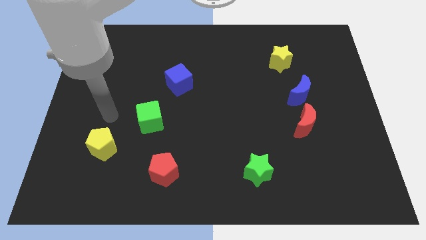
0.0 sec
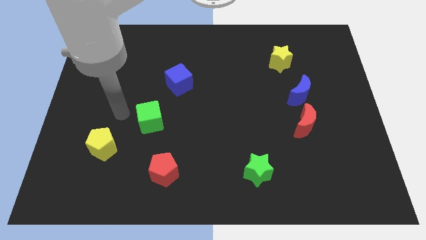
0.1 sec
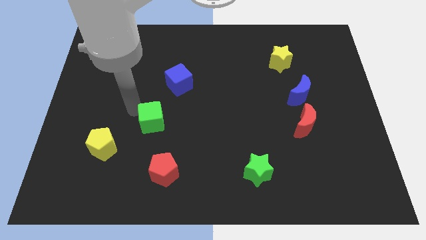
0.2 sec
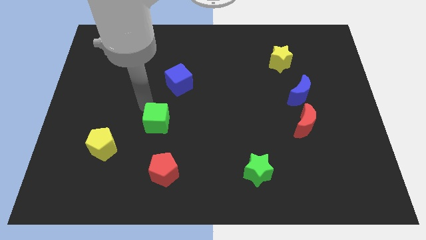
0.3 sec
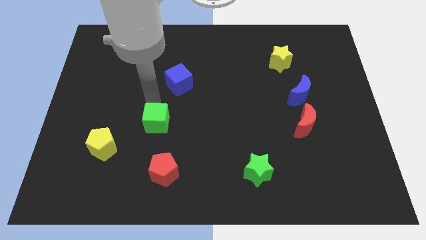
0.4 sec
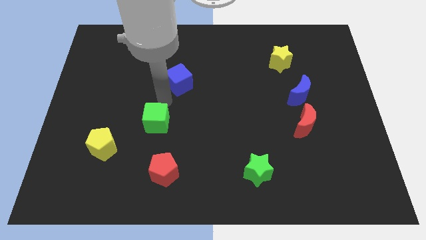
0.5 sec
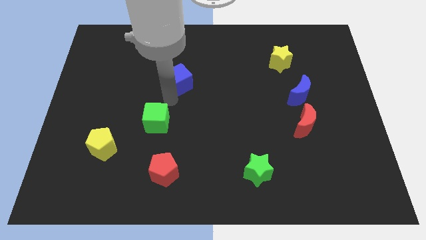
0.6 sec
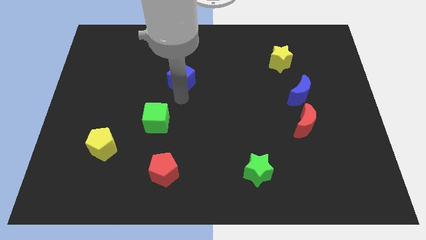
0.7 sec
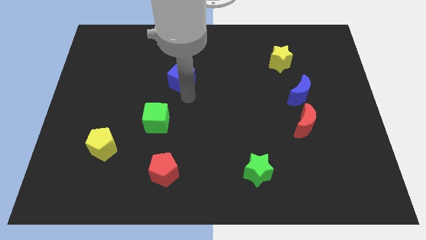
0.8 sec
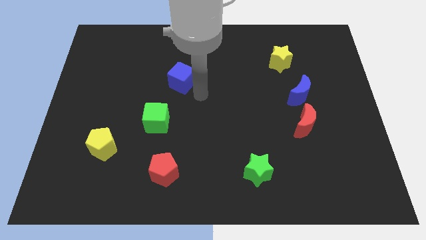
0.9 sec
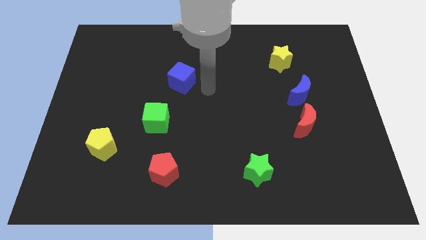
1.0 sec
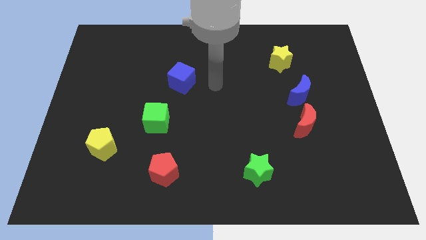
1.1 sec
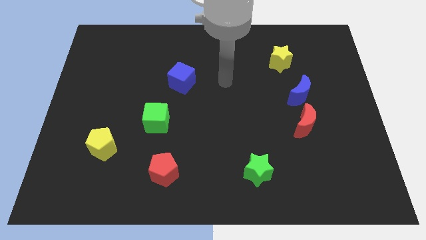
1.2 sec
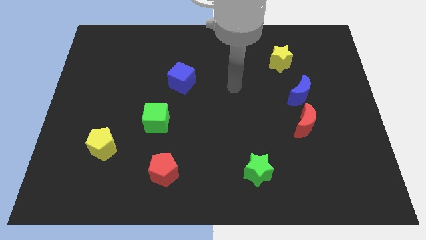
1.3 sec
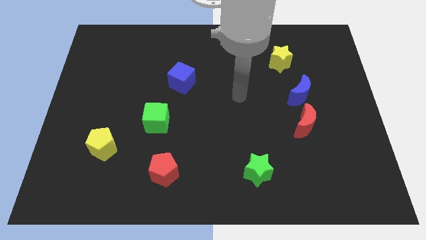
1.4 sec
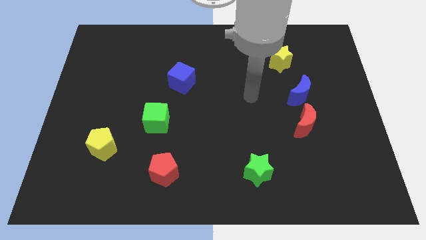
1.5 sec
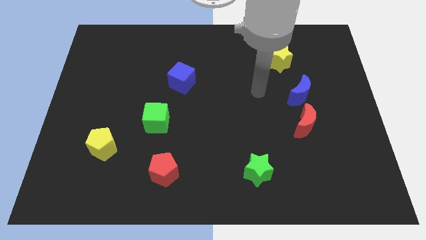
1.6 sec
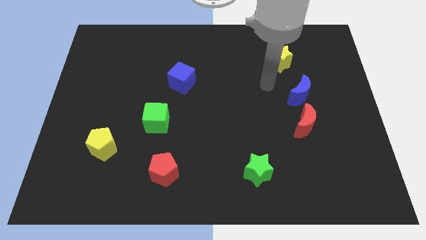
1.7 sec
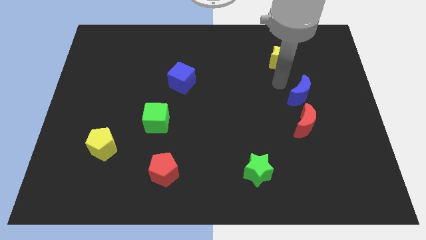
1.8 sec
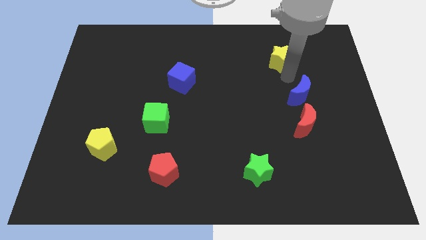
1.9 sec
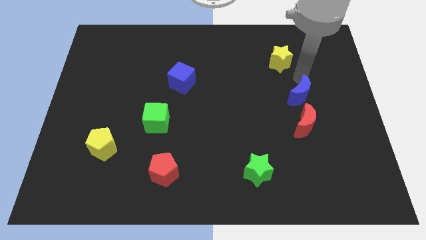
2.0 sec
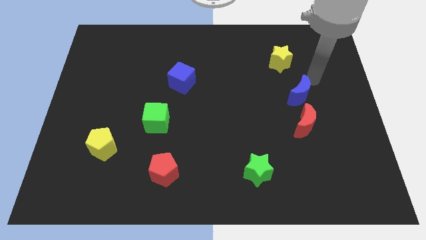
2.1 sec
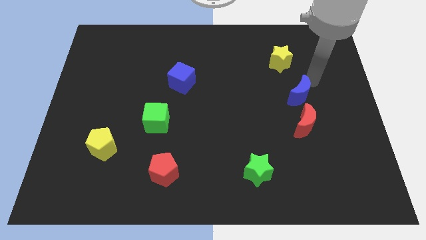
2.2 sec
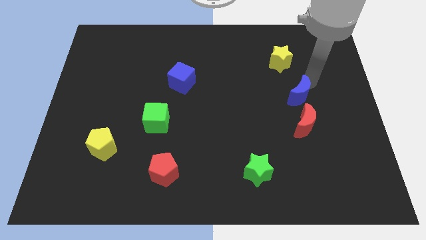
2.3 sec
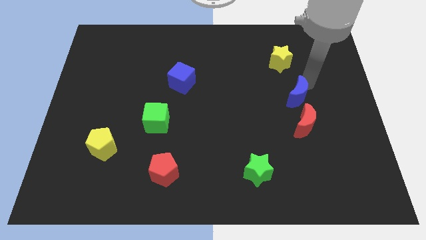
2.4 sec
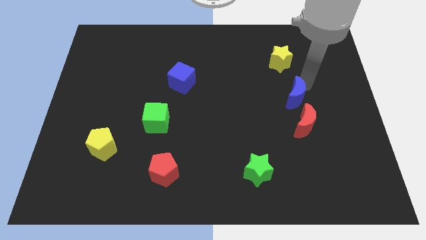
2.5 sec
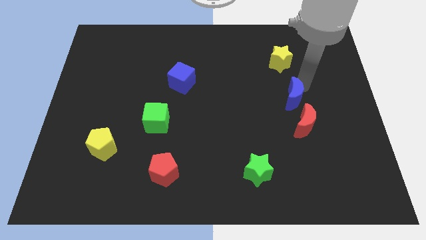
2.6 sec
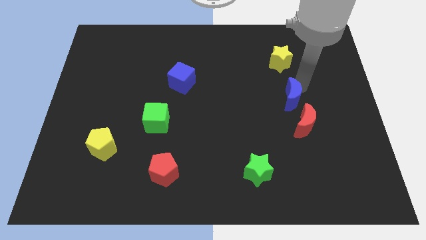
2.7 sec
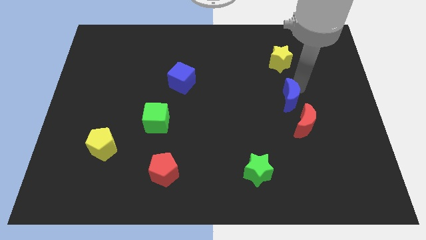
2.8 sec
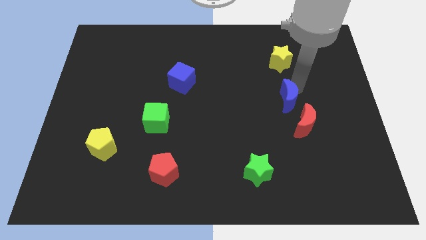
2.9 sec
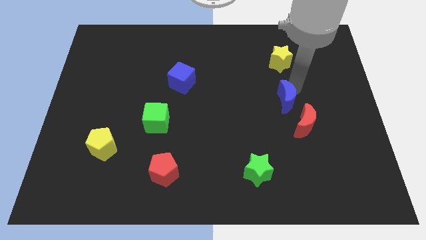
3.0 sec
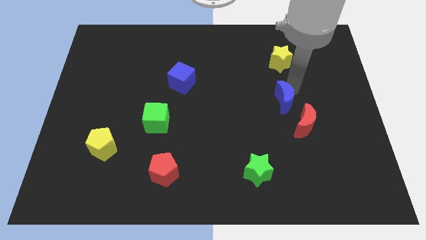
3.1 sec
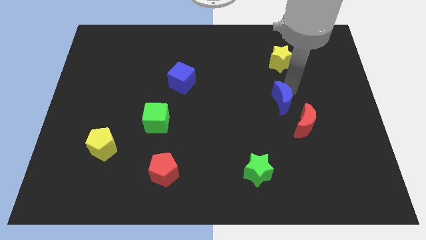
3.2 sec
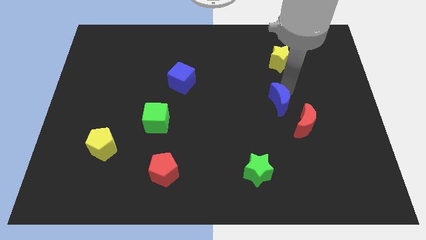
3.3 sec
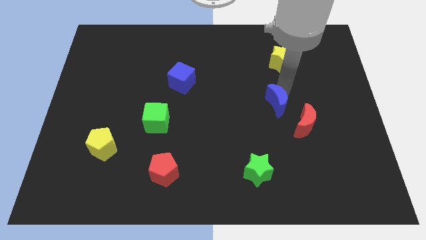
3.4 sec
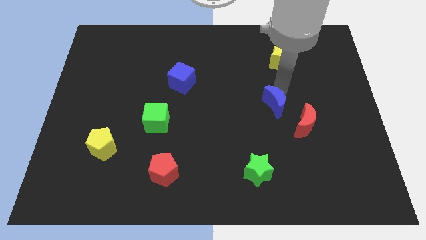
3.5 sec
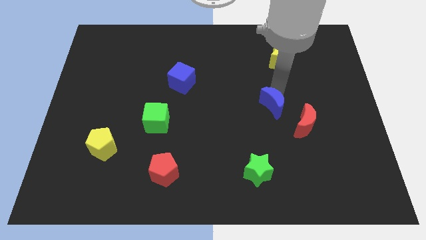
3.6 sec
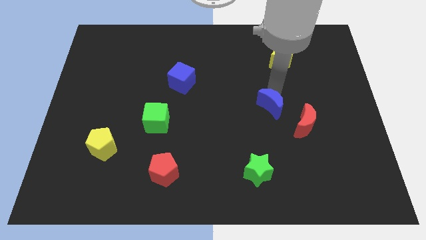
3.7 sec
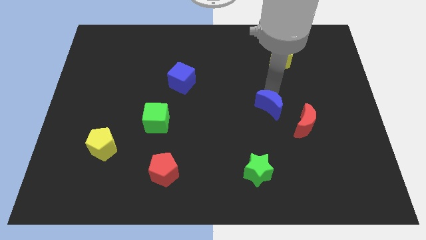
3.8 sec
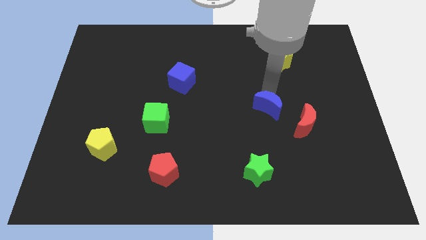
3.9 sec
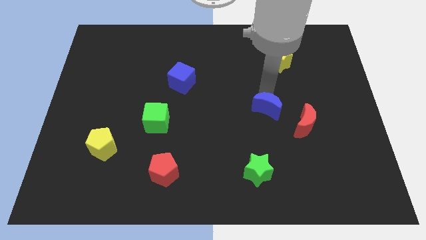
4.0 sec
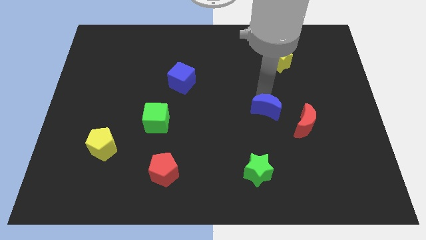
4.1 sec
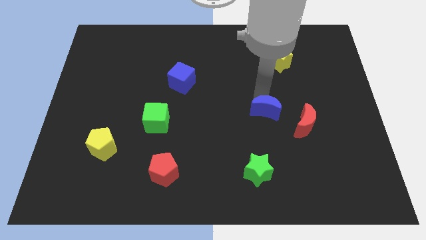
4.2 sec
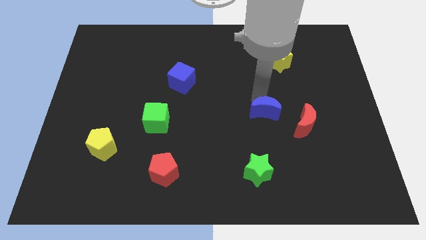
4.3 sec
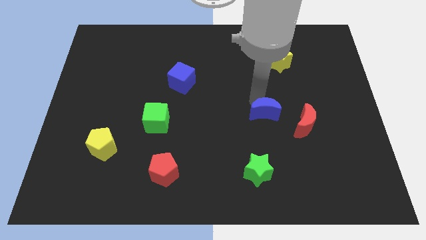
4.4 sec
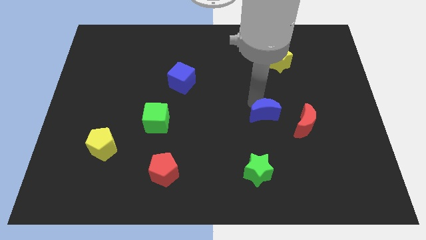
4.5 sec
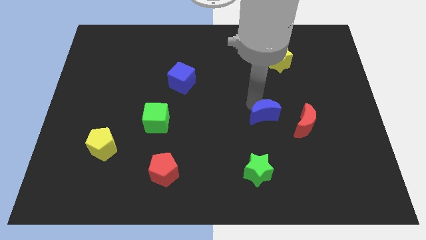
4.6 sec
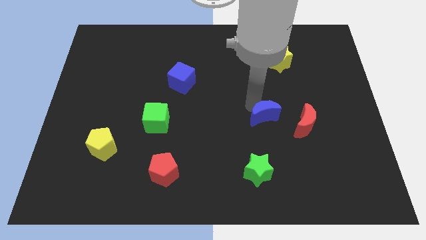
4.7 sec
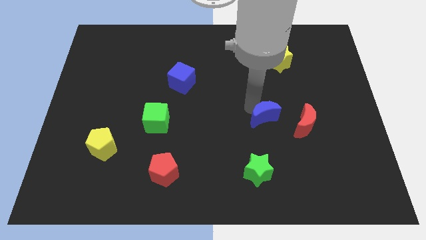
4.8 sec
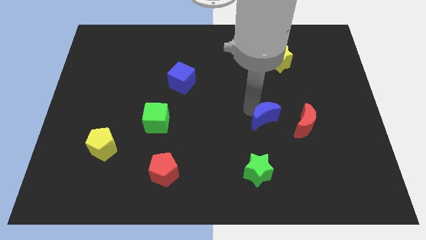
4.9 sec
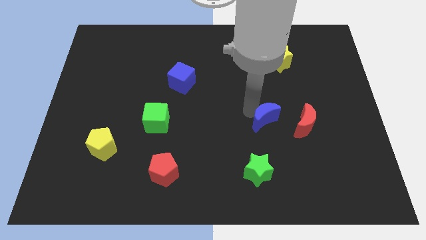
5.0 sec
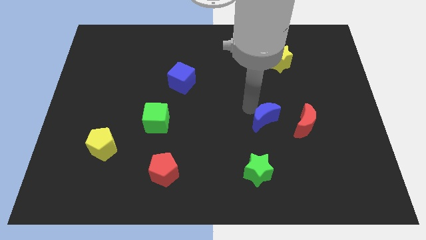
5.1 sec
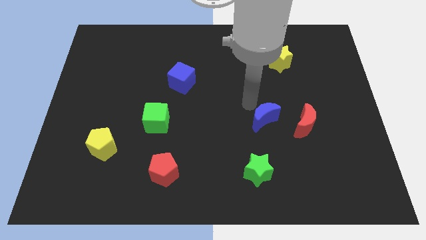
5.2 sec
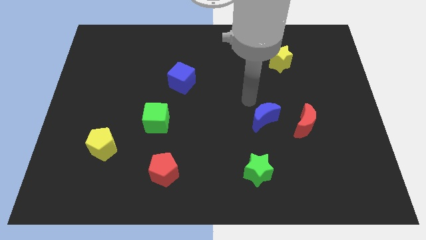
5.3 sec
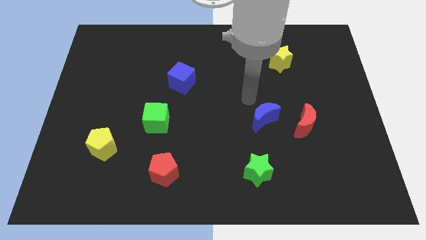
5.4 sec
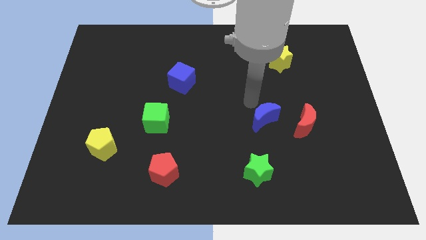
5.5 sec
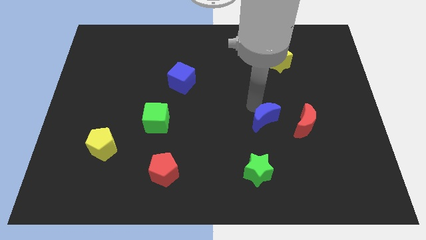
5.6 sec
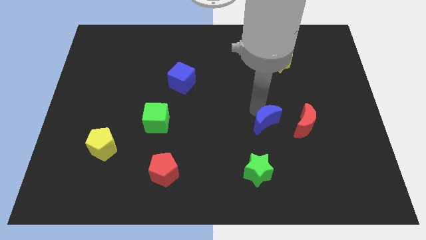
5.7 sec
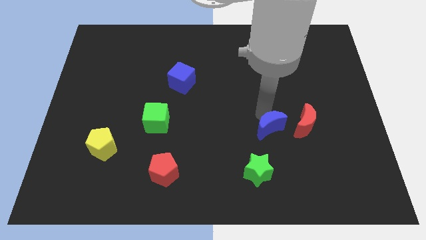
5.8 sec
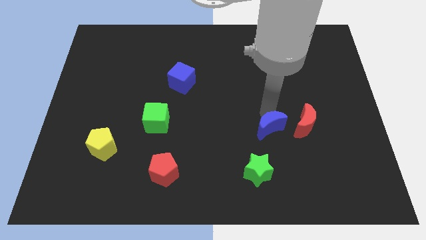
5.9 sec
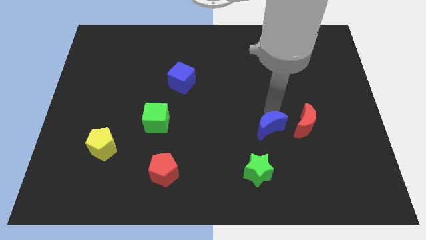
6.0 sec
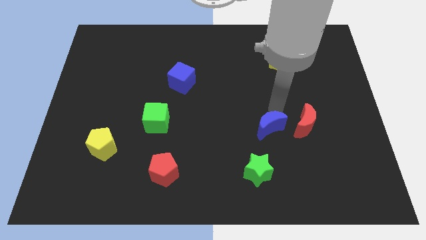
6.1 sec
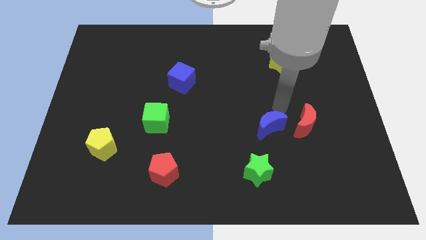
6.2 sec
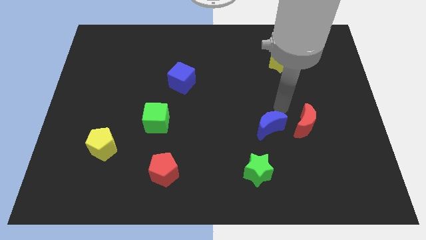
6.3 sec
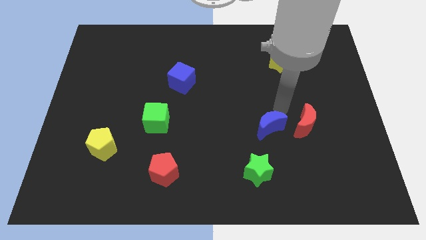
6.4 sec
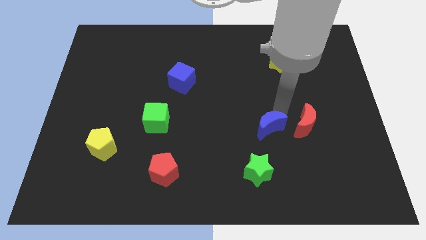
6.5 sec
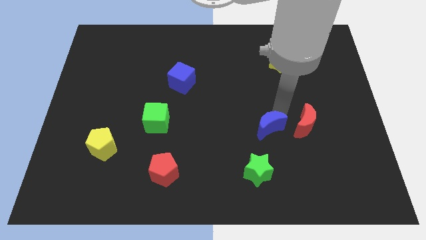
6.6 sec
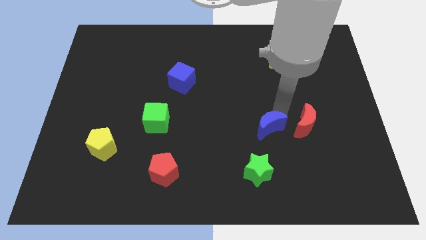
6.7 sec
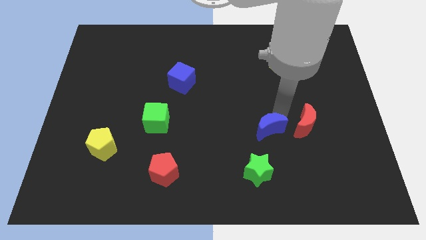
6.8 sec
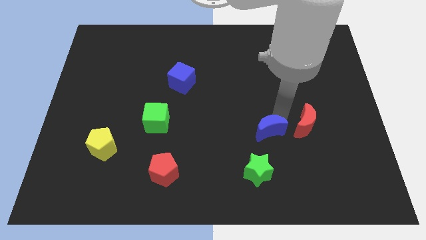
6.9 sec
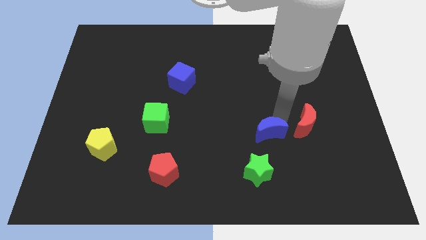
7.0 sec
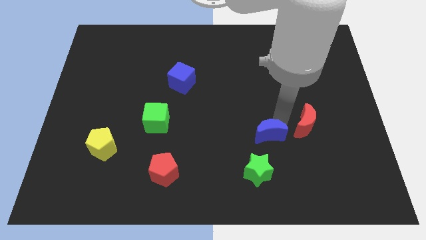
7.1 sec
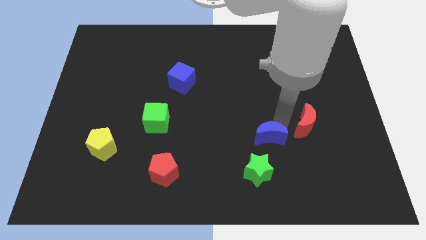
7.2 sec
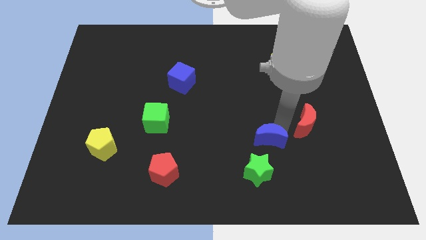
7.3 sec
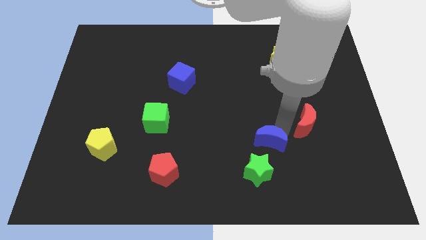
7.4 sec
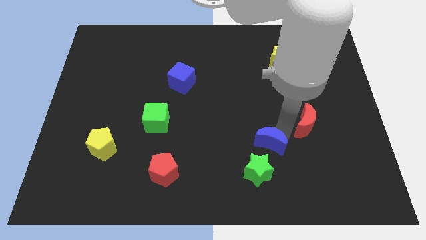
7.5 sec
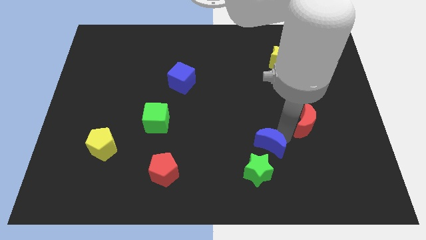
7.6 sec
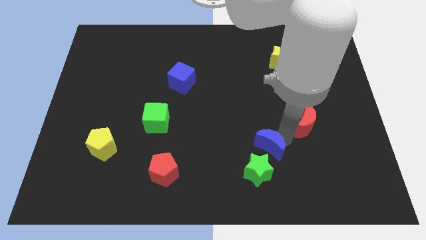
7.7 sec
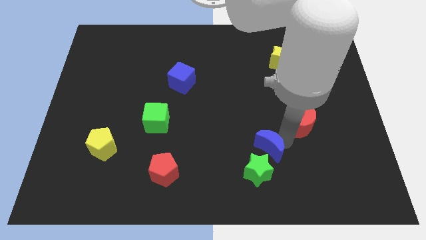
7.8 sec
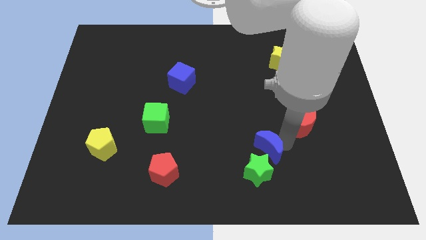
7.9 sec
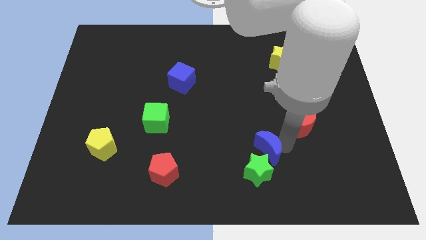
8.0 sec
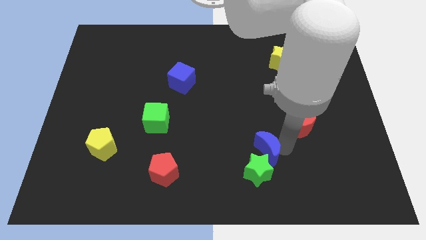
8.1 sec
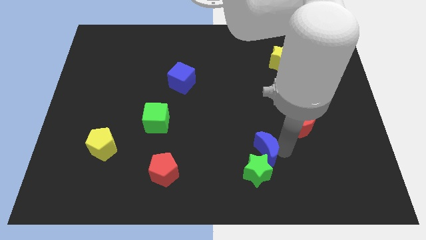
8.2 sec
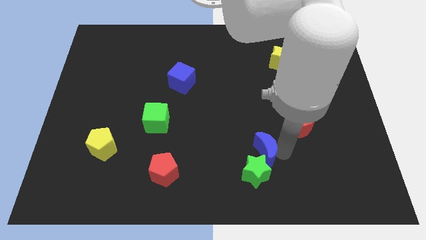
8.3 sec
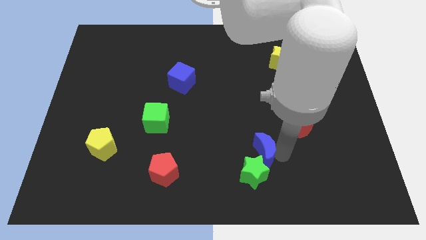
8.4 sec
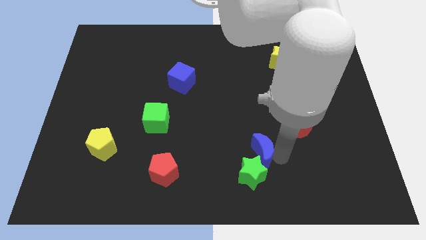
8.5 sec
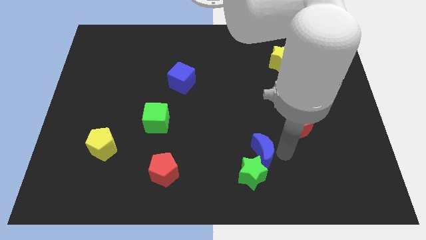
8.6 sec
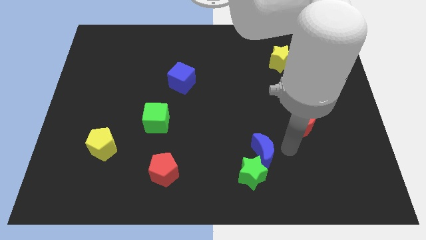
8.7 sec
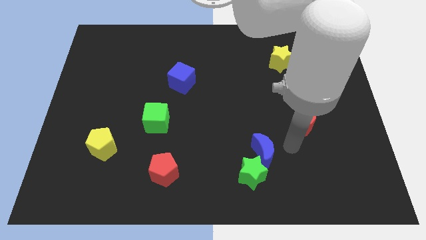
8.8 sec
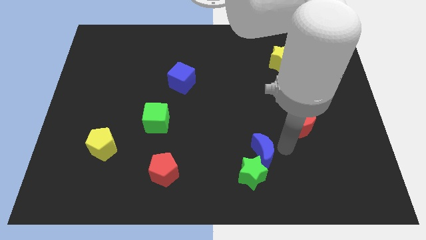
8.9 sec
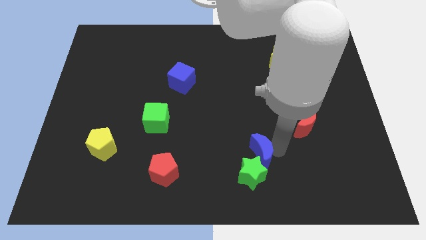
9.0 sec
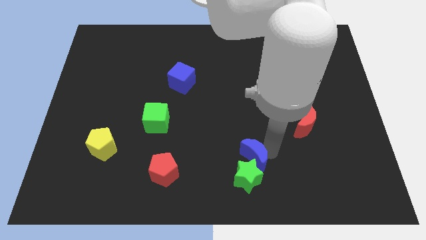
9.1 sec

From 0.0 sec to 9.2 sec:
slide the blue moon downwards and to the left
